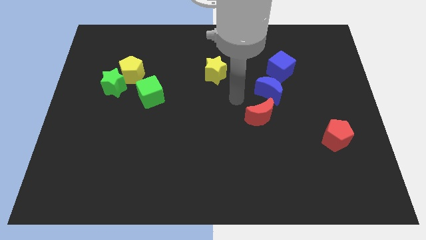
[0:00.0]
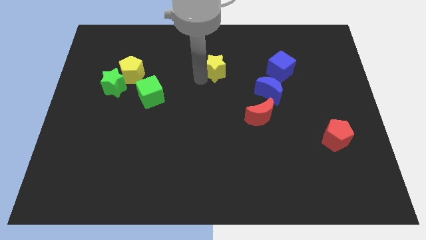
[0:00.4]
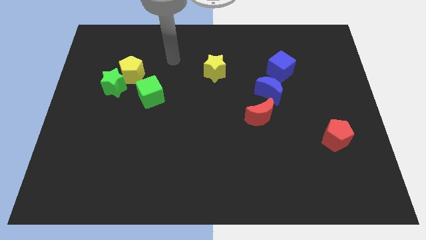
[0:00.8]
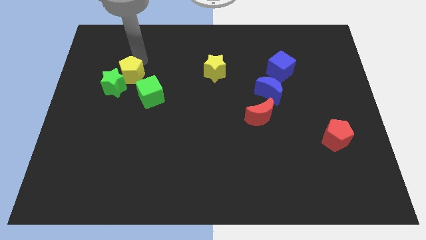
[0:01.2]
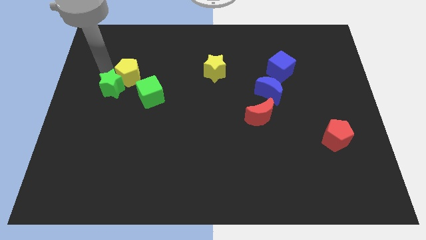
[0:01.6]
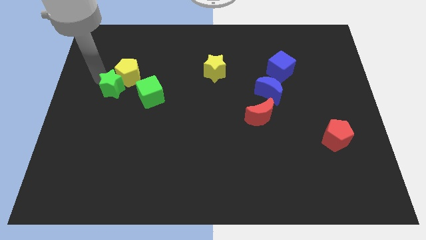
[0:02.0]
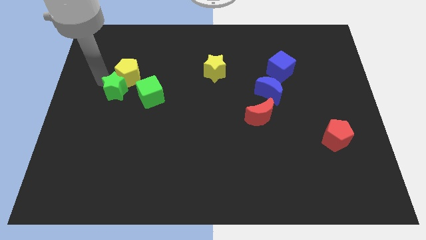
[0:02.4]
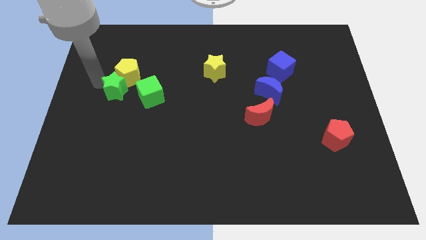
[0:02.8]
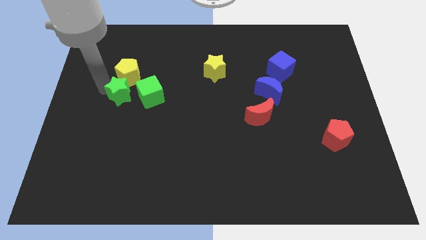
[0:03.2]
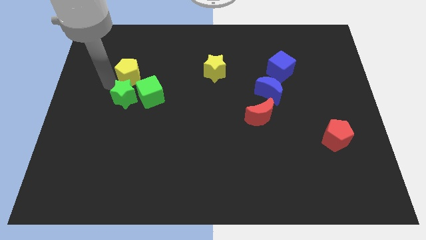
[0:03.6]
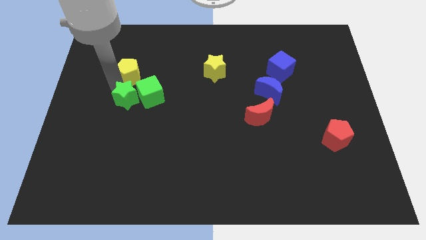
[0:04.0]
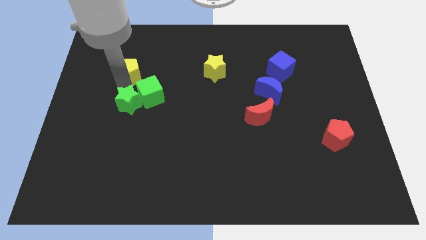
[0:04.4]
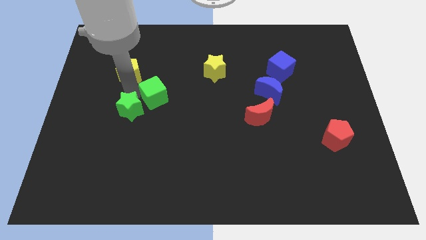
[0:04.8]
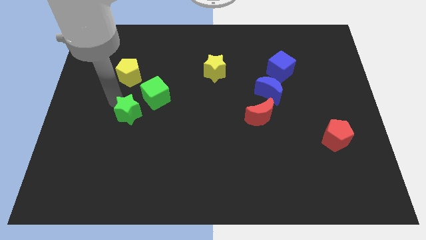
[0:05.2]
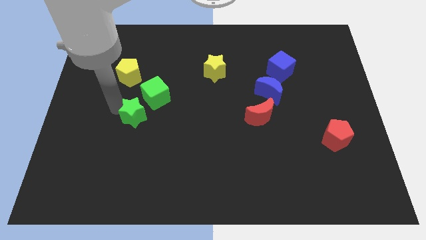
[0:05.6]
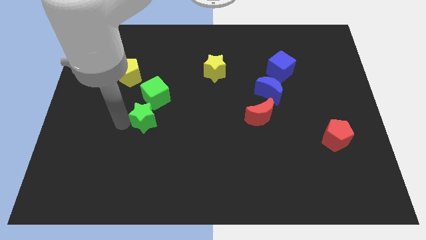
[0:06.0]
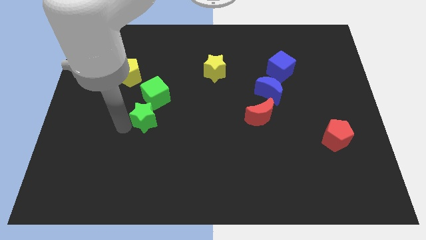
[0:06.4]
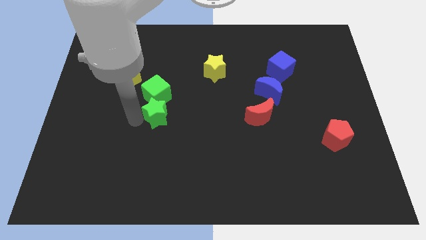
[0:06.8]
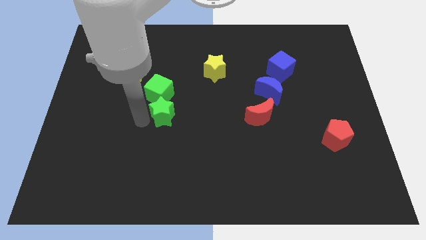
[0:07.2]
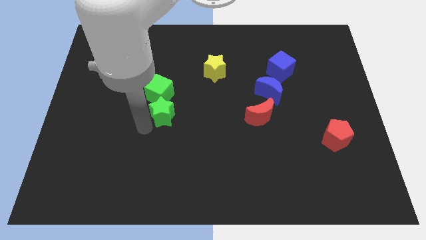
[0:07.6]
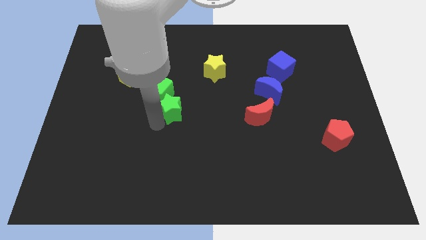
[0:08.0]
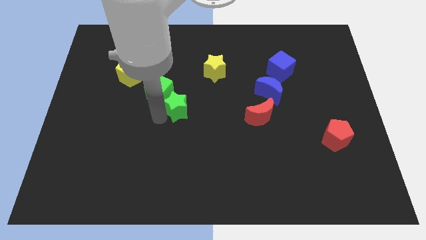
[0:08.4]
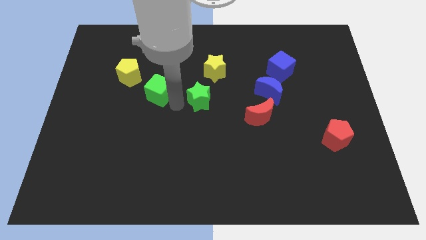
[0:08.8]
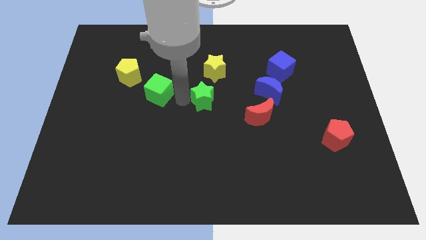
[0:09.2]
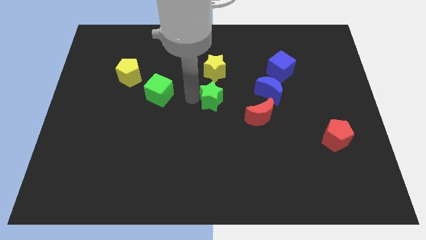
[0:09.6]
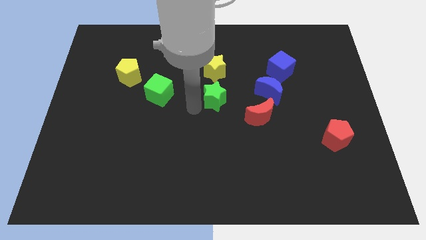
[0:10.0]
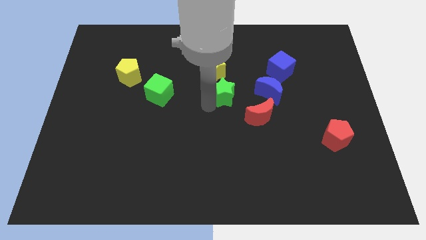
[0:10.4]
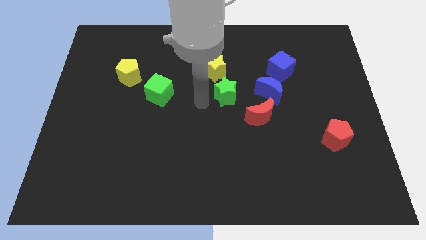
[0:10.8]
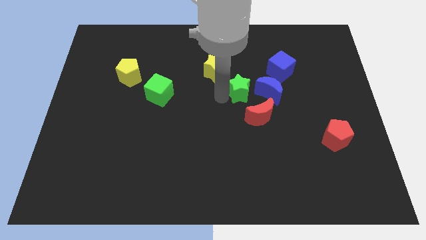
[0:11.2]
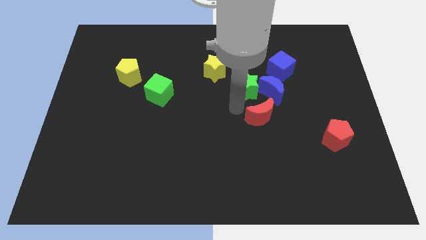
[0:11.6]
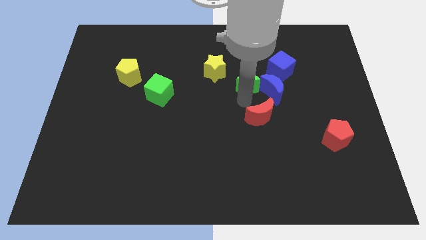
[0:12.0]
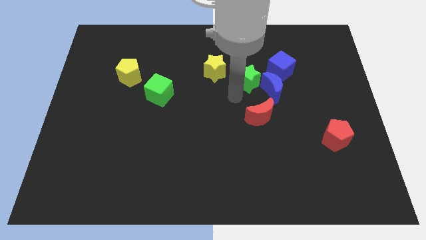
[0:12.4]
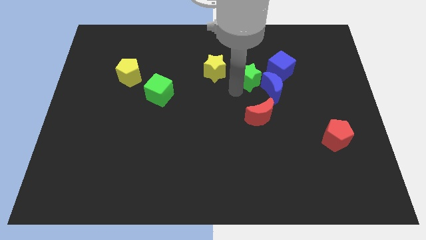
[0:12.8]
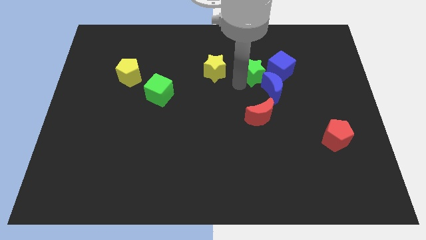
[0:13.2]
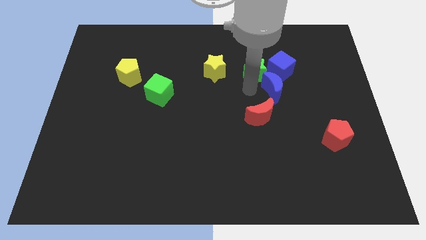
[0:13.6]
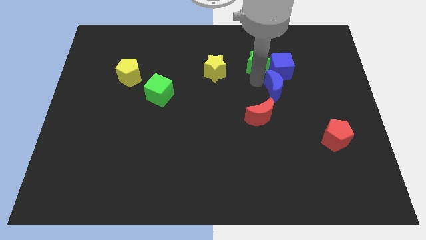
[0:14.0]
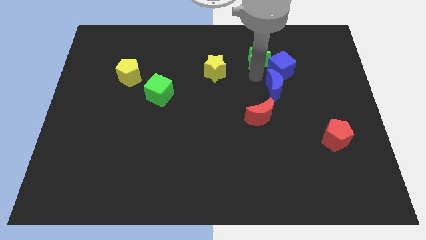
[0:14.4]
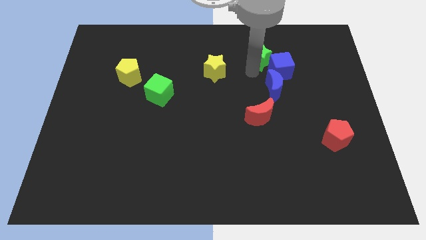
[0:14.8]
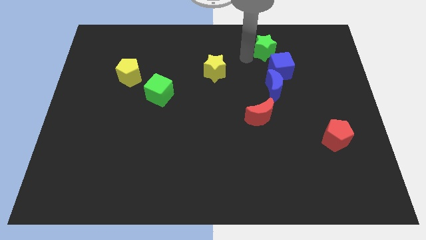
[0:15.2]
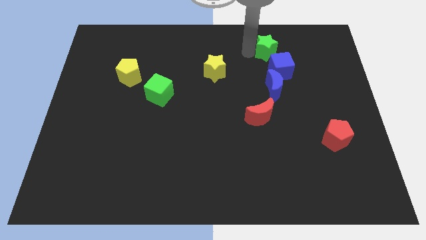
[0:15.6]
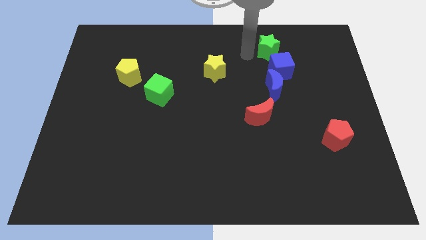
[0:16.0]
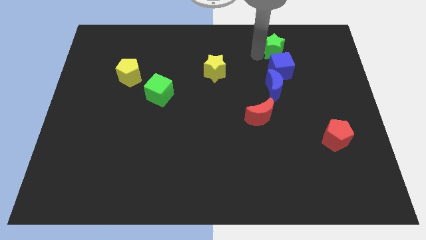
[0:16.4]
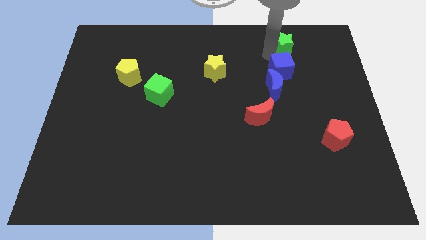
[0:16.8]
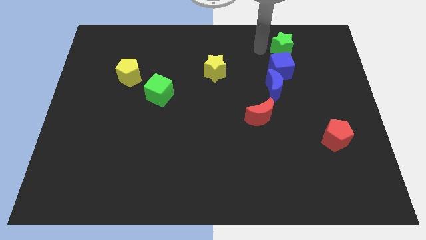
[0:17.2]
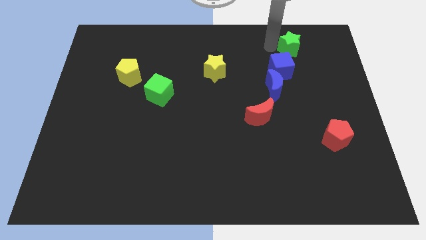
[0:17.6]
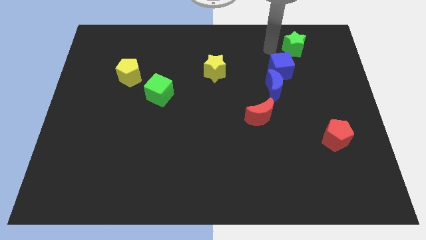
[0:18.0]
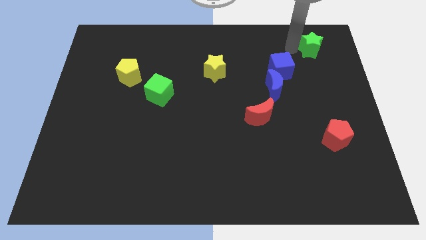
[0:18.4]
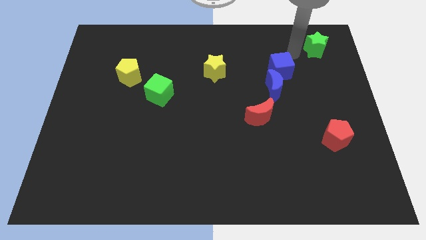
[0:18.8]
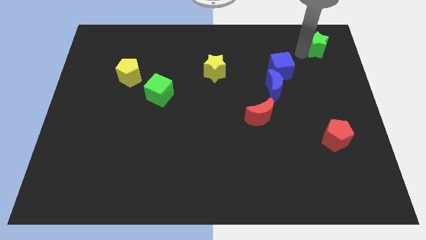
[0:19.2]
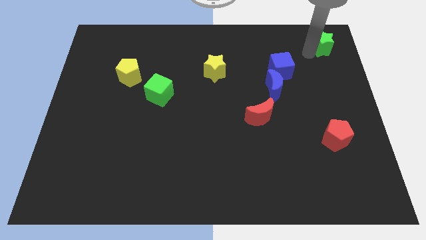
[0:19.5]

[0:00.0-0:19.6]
push the green star to the top right

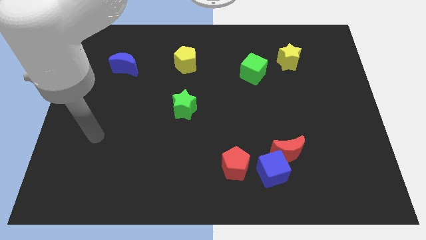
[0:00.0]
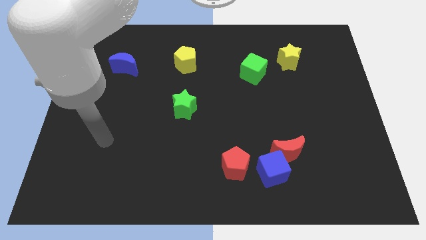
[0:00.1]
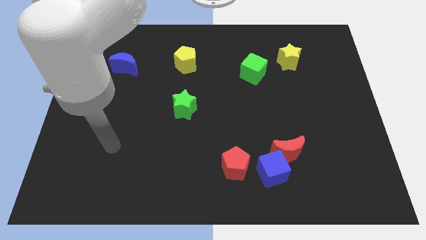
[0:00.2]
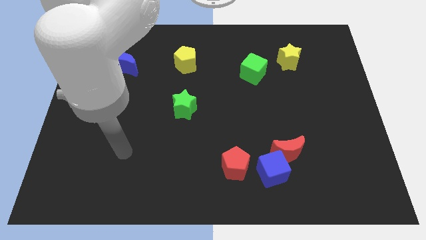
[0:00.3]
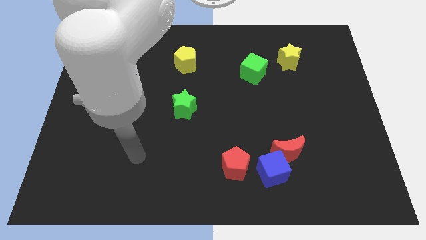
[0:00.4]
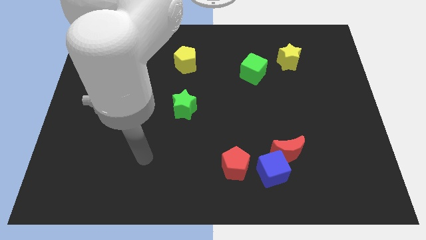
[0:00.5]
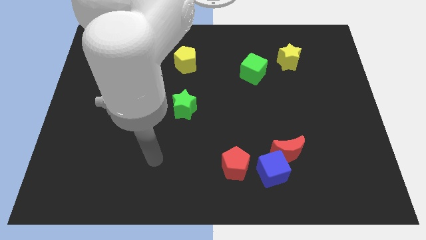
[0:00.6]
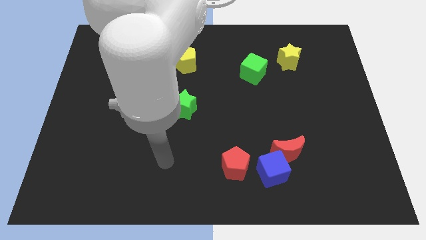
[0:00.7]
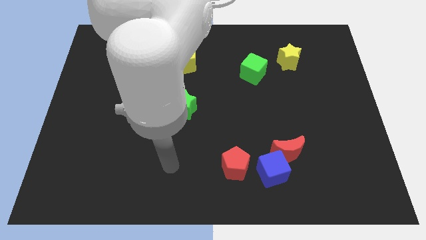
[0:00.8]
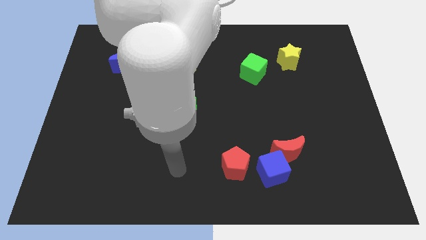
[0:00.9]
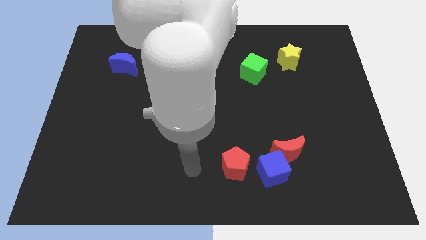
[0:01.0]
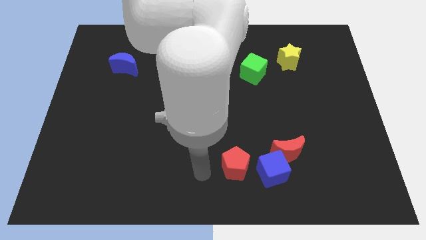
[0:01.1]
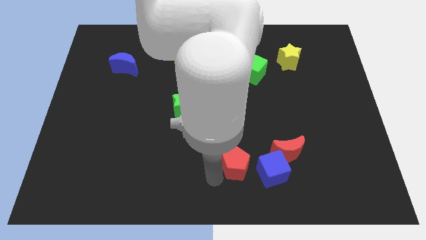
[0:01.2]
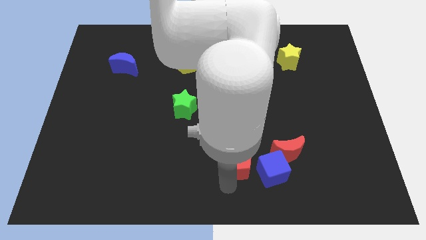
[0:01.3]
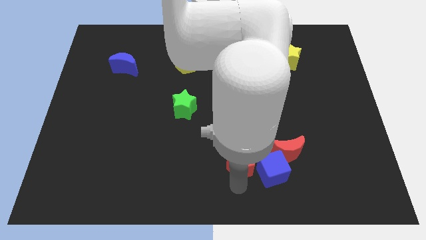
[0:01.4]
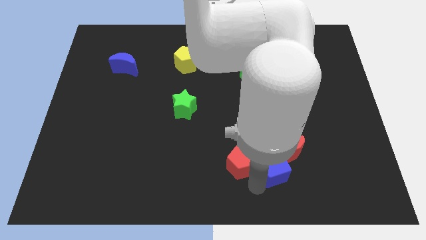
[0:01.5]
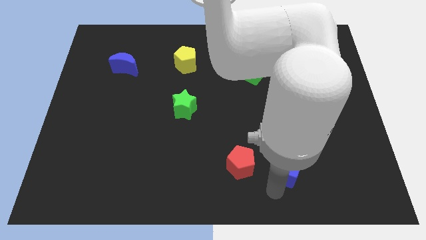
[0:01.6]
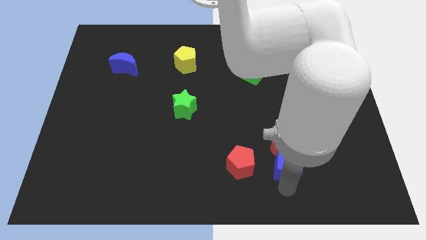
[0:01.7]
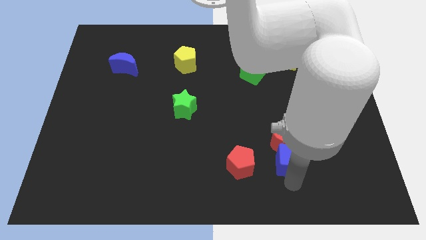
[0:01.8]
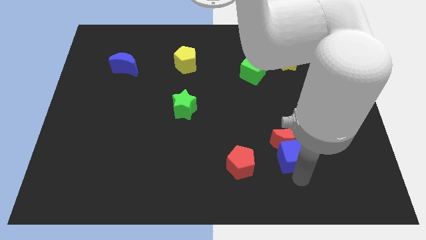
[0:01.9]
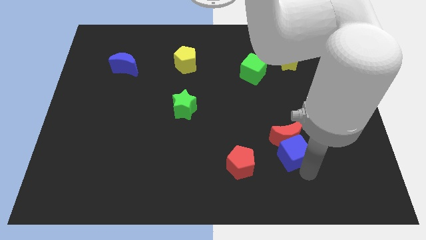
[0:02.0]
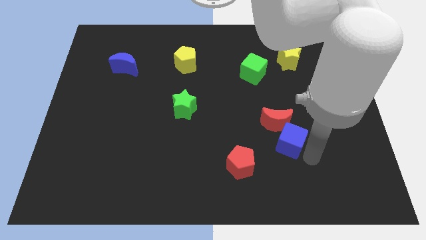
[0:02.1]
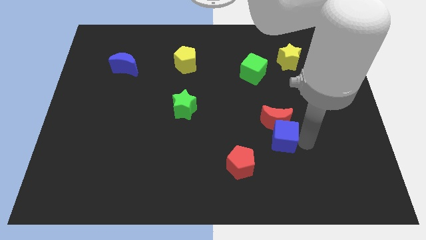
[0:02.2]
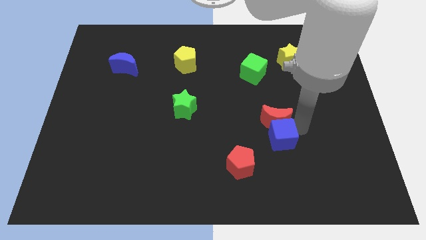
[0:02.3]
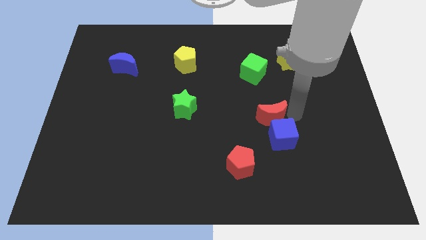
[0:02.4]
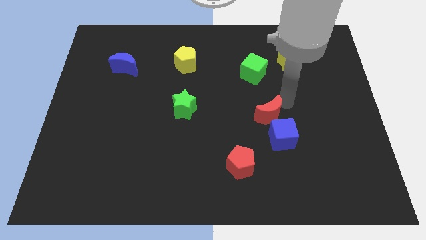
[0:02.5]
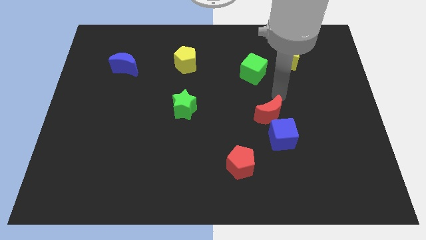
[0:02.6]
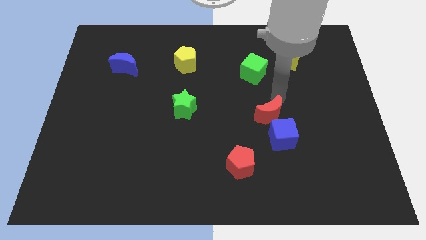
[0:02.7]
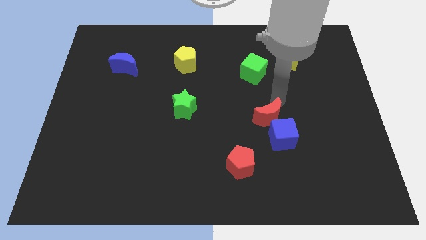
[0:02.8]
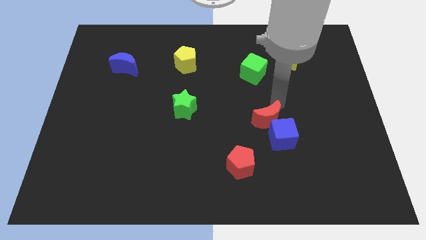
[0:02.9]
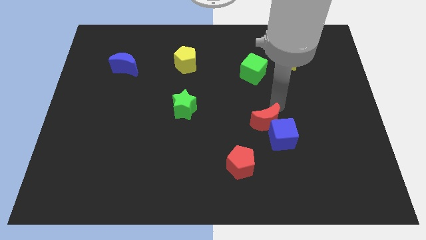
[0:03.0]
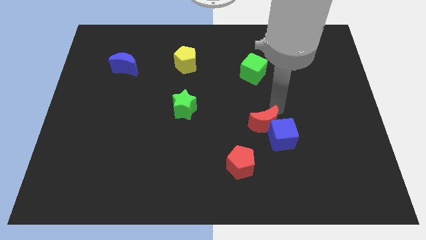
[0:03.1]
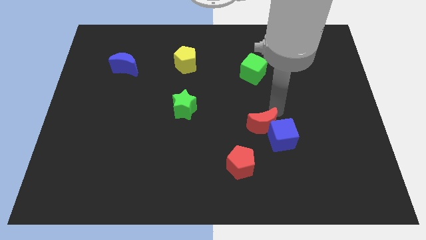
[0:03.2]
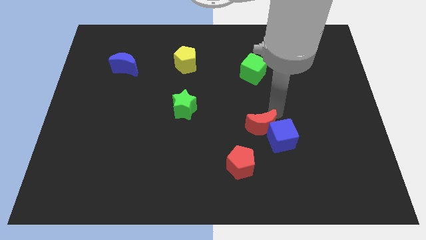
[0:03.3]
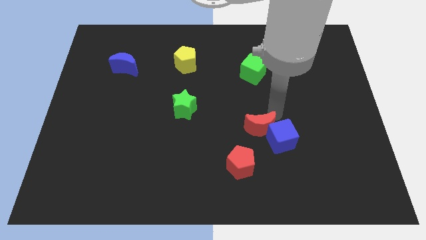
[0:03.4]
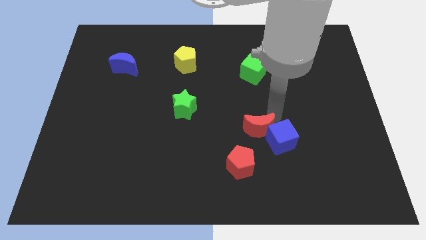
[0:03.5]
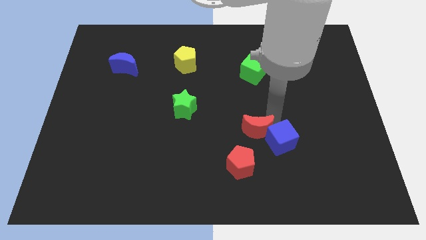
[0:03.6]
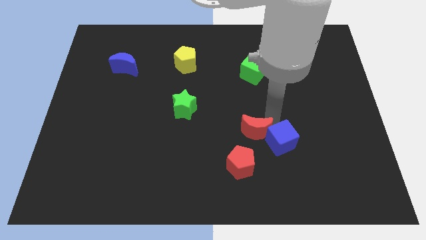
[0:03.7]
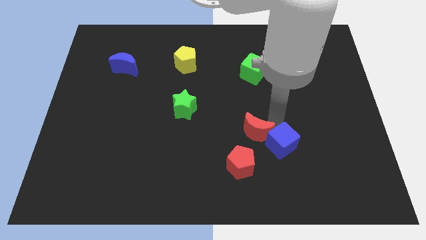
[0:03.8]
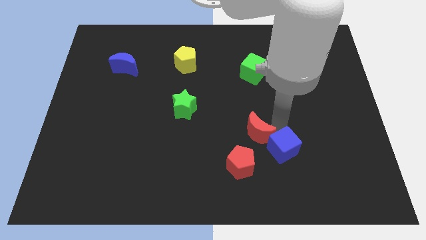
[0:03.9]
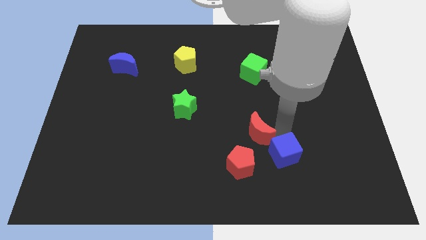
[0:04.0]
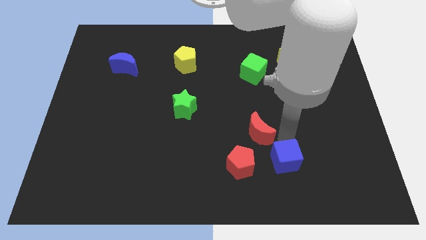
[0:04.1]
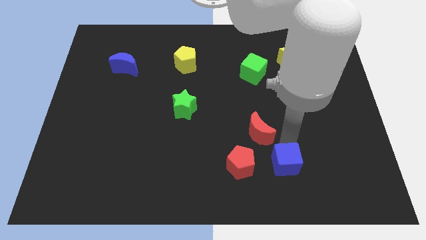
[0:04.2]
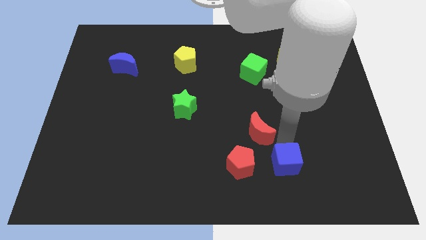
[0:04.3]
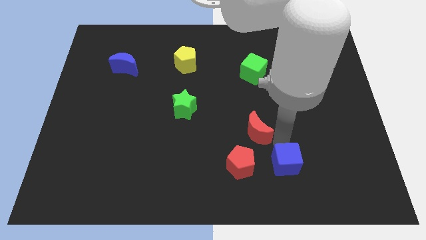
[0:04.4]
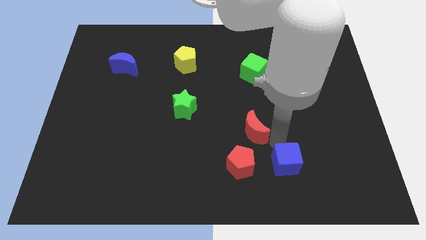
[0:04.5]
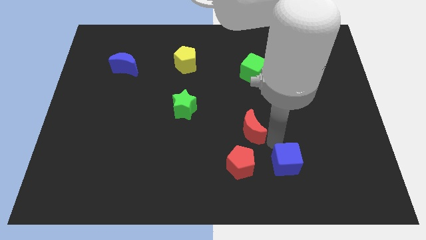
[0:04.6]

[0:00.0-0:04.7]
put the red moon to the middle of the board
